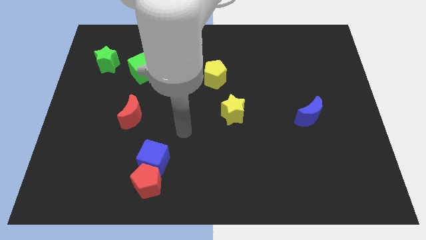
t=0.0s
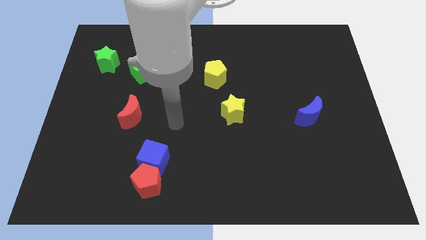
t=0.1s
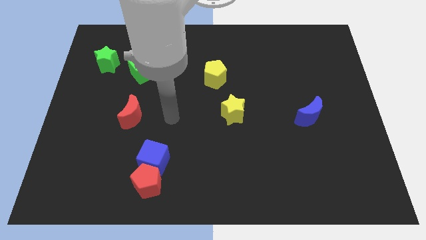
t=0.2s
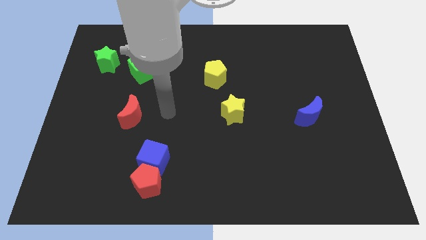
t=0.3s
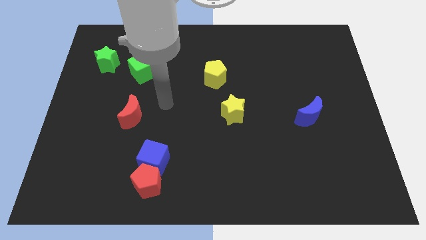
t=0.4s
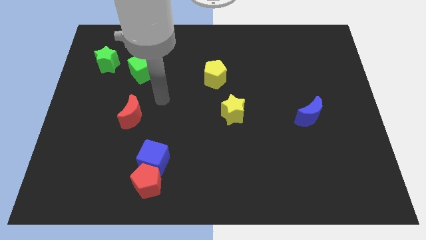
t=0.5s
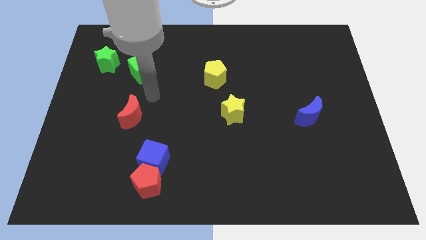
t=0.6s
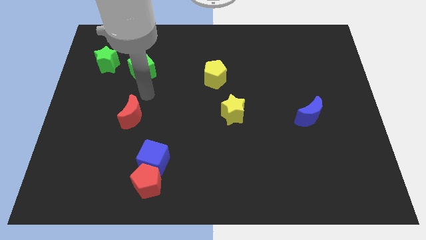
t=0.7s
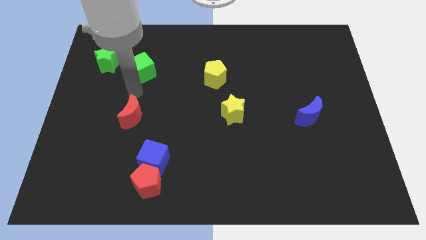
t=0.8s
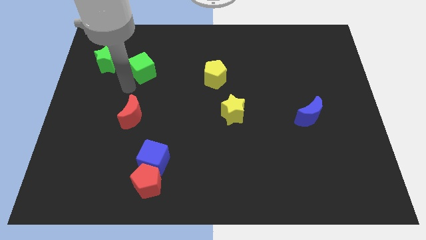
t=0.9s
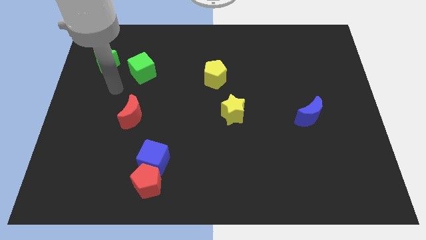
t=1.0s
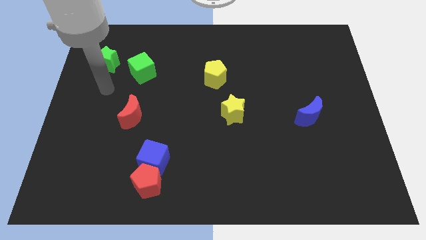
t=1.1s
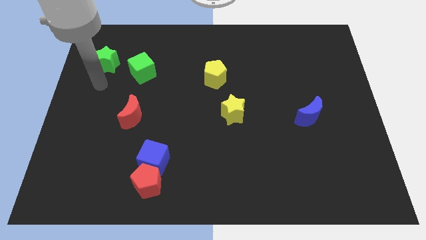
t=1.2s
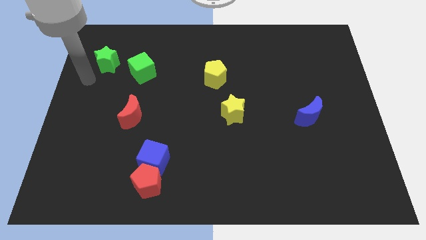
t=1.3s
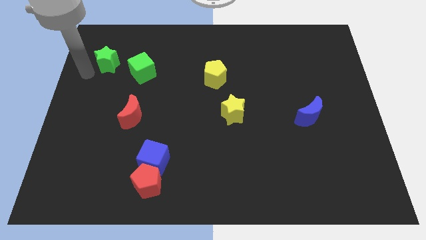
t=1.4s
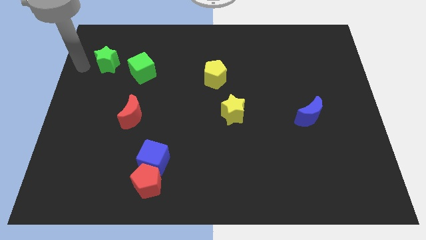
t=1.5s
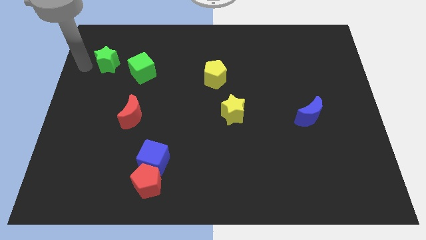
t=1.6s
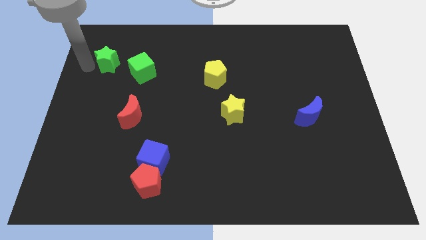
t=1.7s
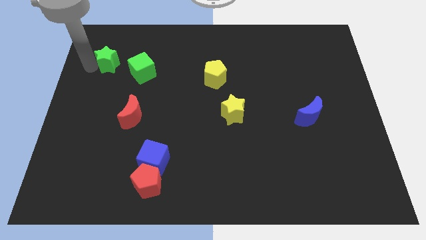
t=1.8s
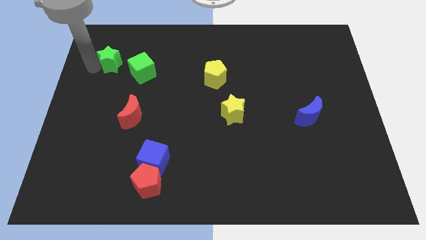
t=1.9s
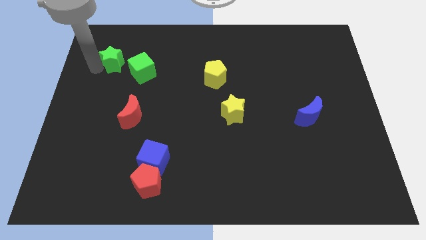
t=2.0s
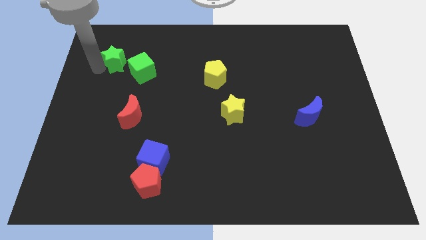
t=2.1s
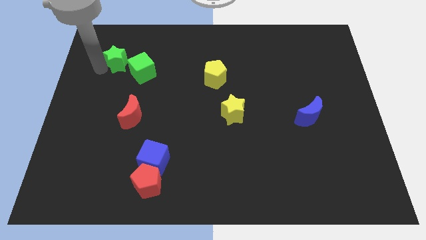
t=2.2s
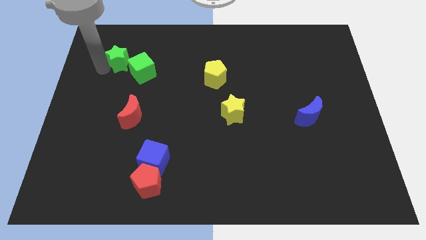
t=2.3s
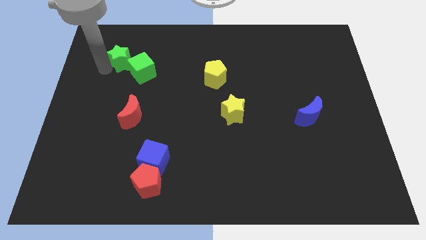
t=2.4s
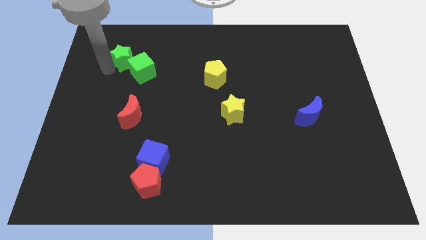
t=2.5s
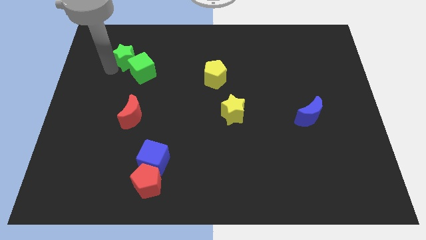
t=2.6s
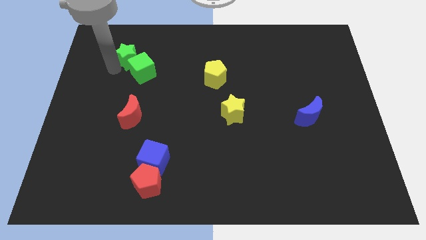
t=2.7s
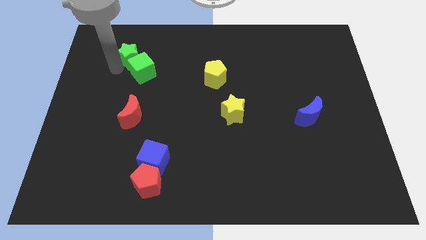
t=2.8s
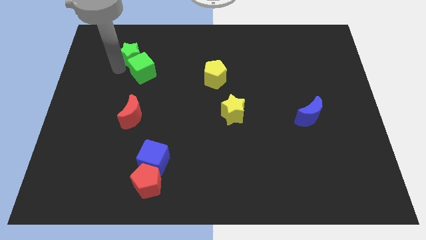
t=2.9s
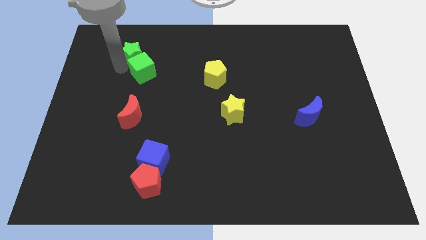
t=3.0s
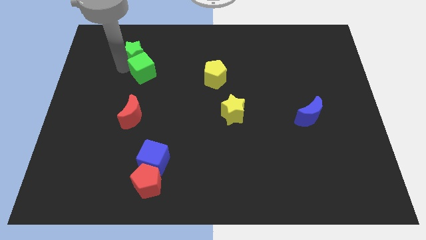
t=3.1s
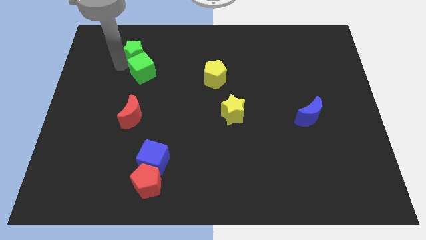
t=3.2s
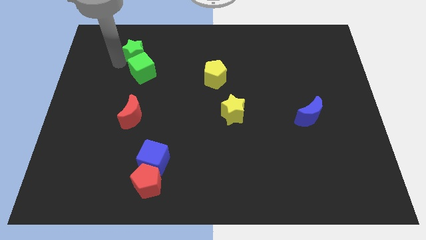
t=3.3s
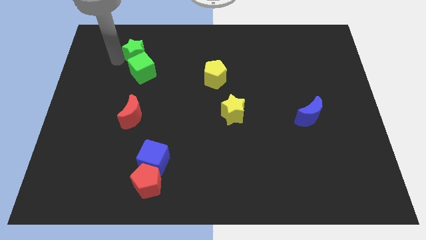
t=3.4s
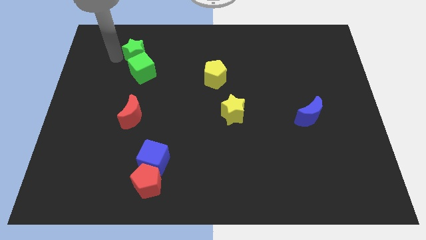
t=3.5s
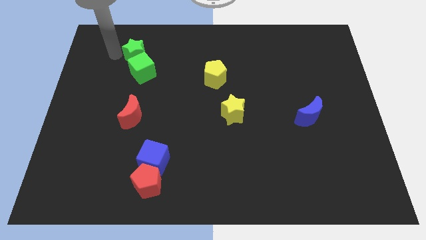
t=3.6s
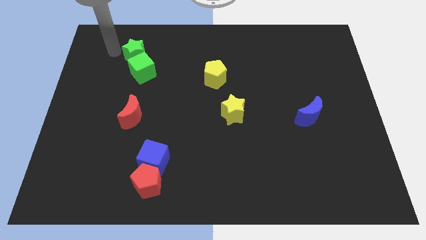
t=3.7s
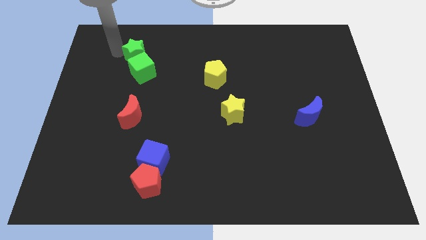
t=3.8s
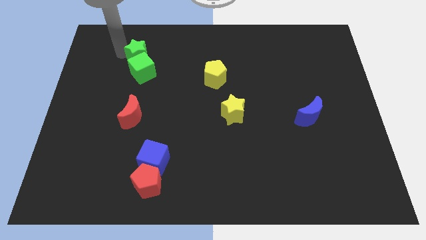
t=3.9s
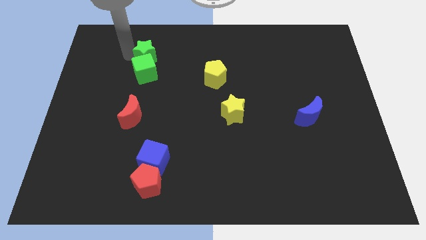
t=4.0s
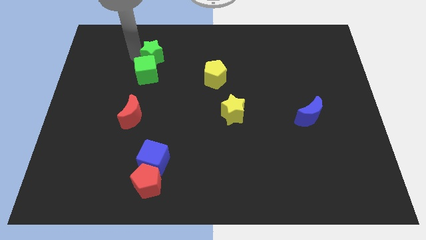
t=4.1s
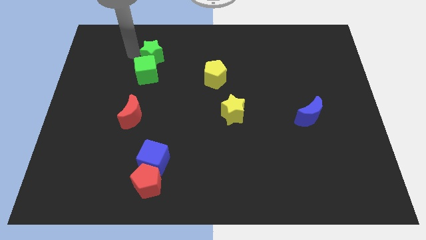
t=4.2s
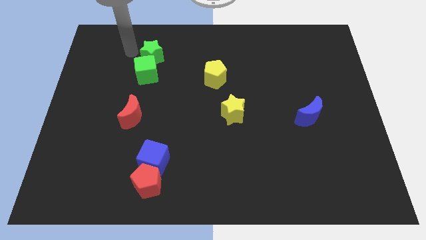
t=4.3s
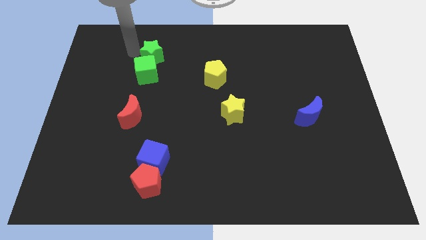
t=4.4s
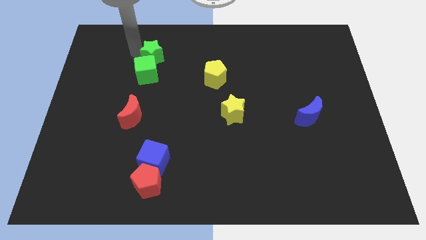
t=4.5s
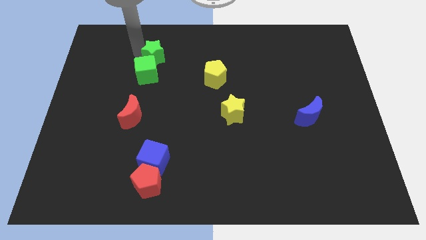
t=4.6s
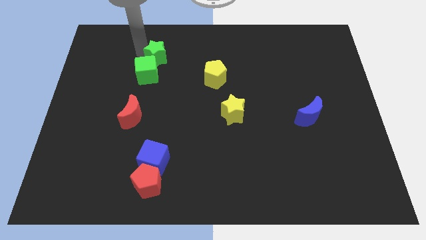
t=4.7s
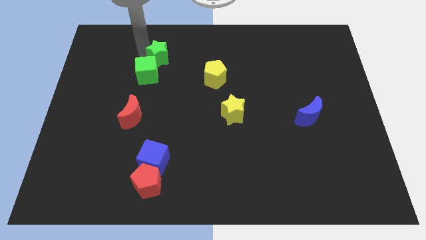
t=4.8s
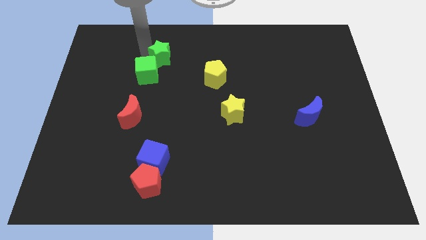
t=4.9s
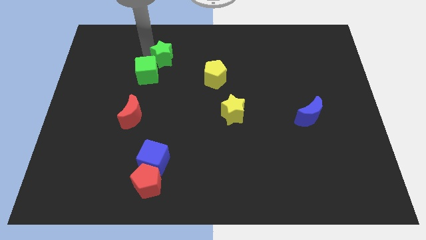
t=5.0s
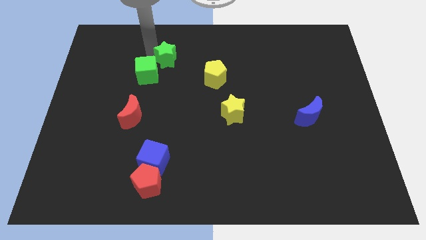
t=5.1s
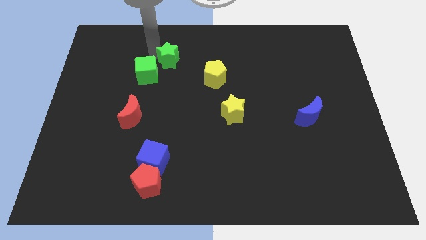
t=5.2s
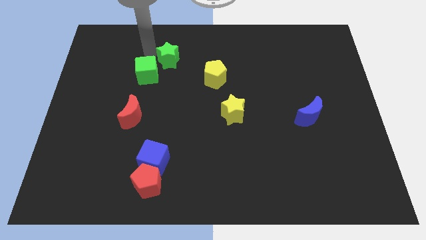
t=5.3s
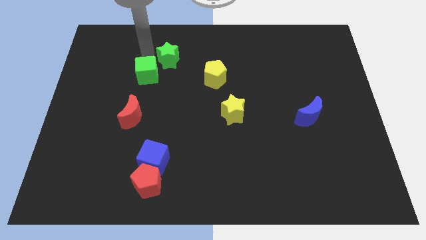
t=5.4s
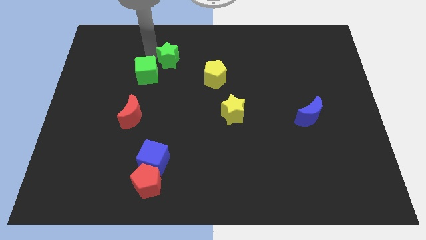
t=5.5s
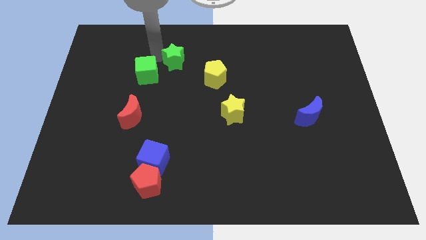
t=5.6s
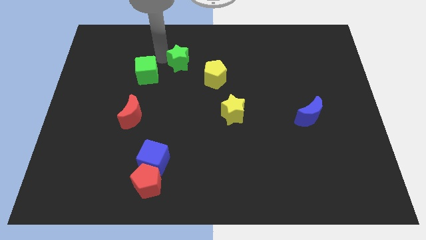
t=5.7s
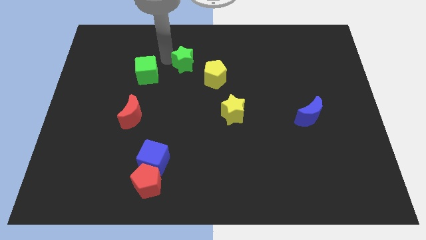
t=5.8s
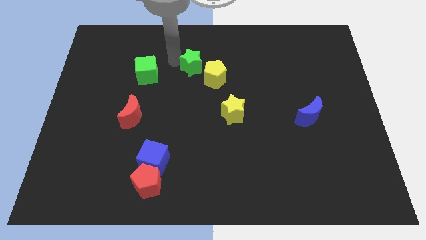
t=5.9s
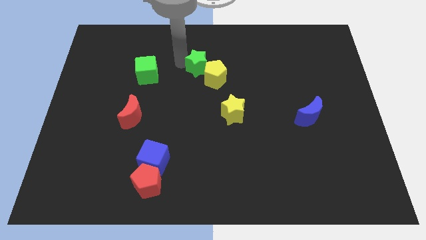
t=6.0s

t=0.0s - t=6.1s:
put the green star close to the yellow pentagon

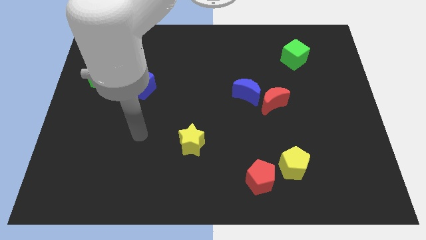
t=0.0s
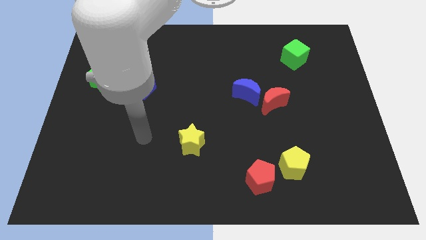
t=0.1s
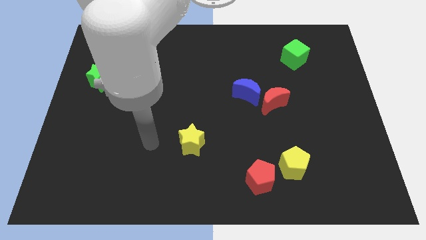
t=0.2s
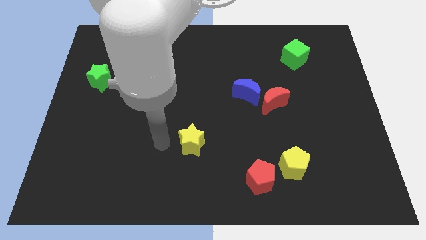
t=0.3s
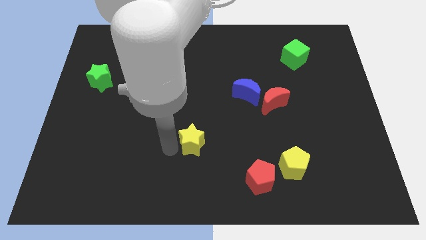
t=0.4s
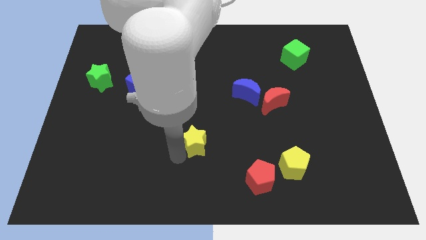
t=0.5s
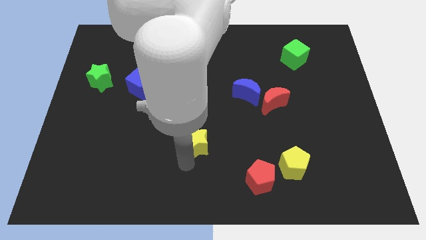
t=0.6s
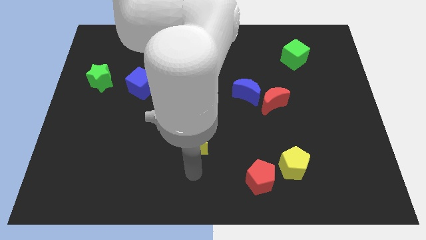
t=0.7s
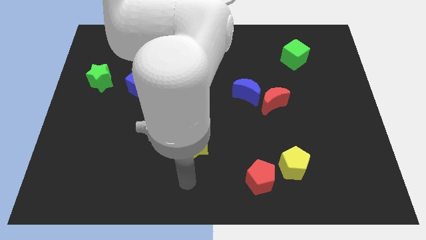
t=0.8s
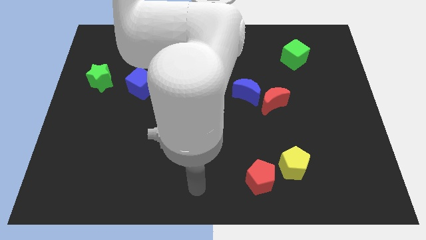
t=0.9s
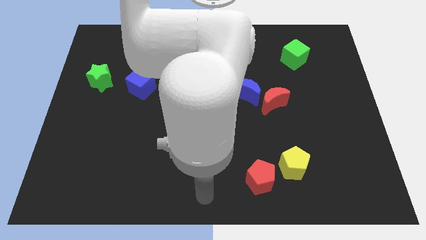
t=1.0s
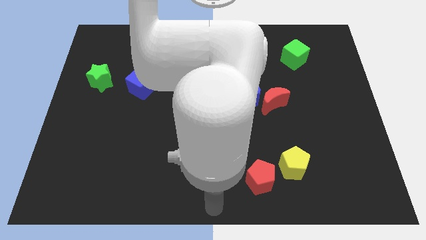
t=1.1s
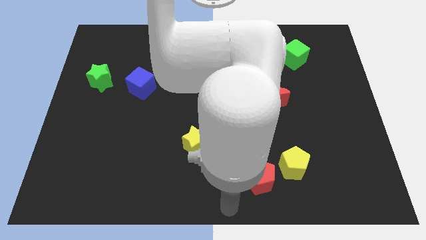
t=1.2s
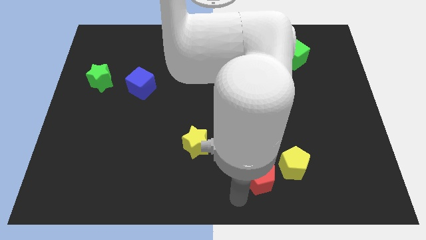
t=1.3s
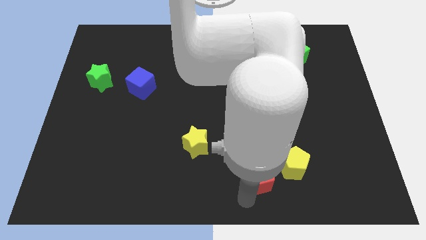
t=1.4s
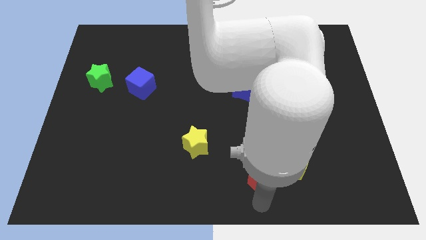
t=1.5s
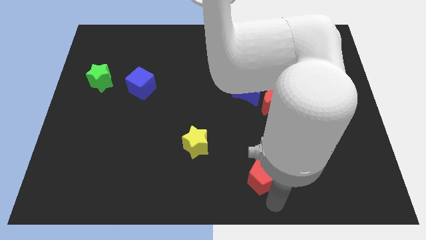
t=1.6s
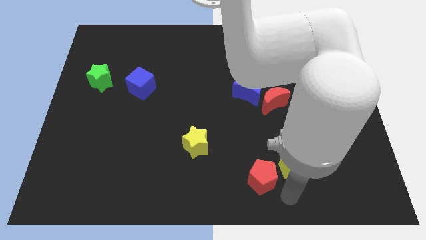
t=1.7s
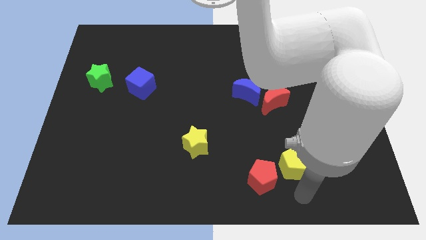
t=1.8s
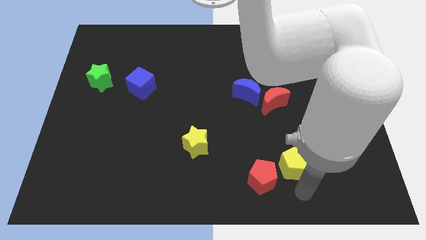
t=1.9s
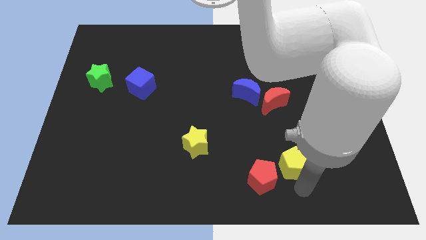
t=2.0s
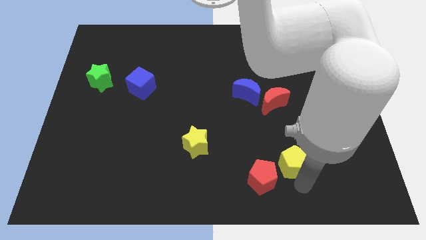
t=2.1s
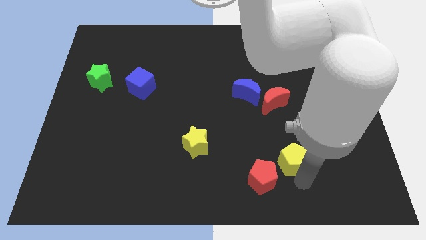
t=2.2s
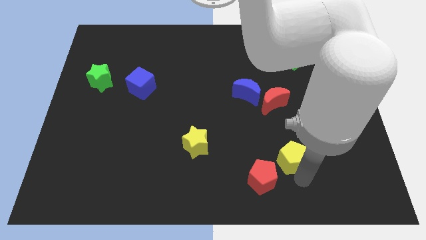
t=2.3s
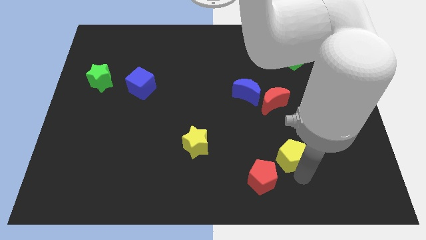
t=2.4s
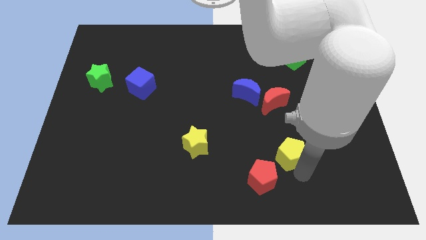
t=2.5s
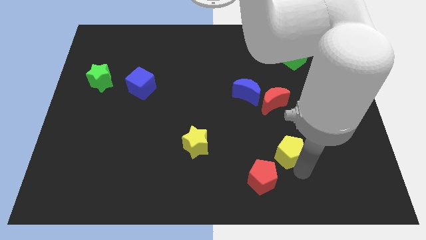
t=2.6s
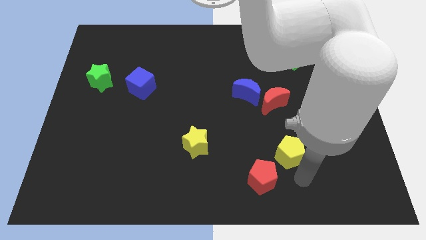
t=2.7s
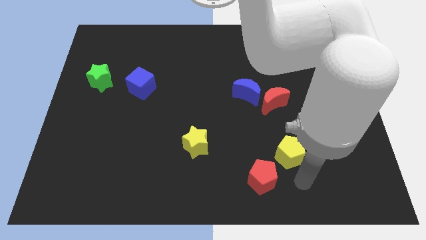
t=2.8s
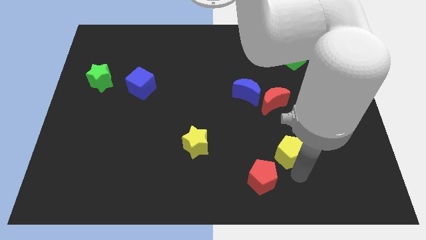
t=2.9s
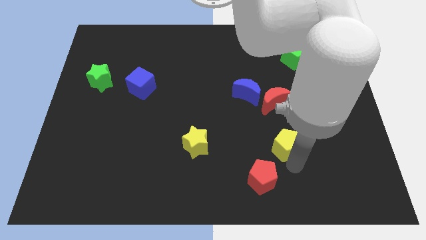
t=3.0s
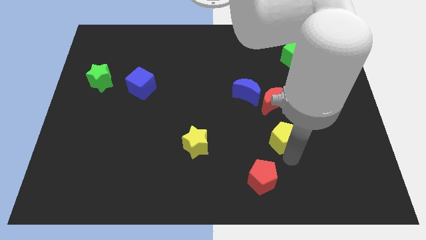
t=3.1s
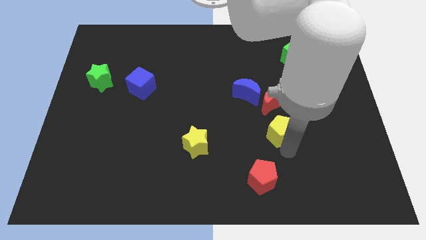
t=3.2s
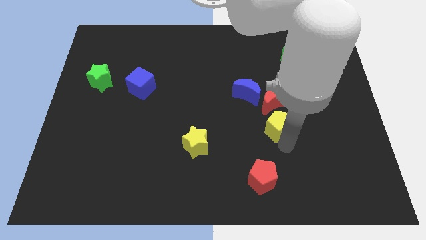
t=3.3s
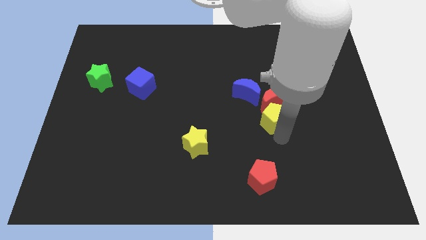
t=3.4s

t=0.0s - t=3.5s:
move the yellow pentagon next to the red moon
